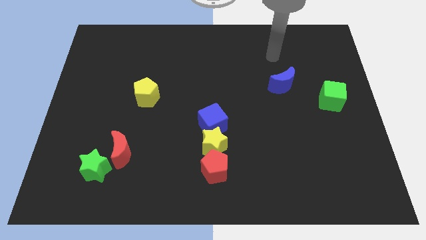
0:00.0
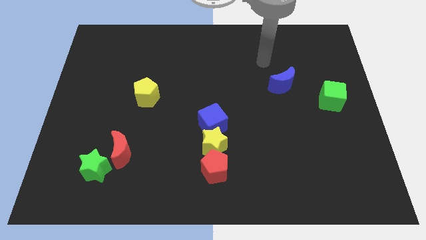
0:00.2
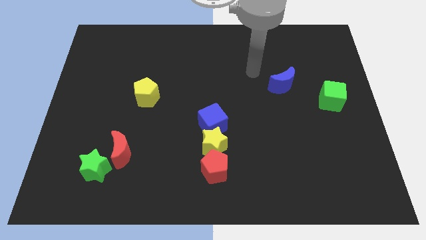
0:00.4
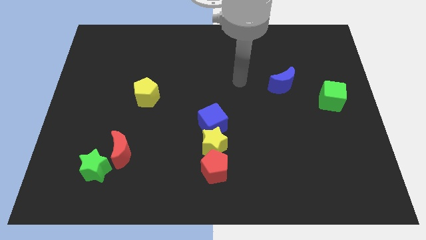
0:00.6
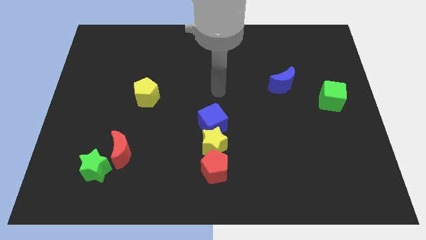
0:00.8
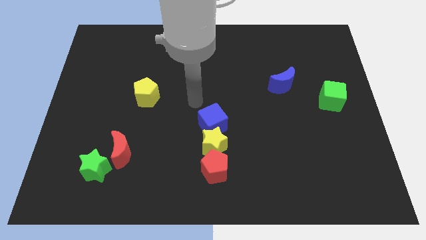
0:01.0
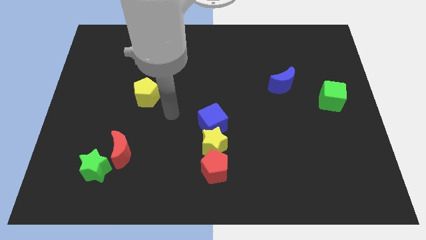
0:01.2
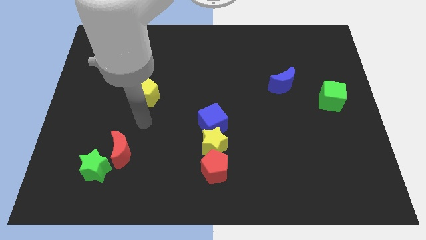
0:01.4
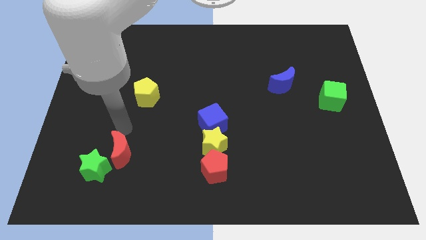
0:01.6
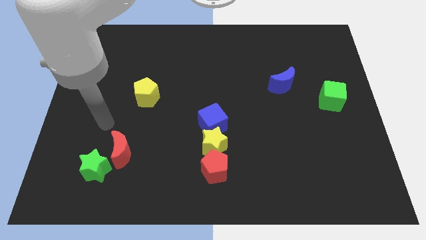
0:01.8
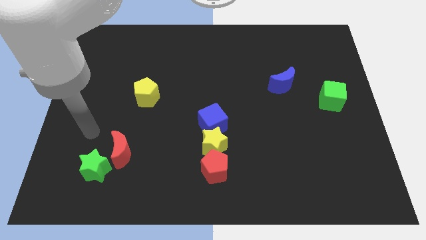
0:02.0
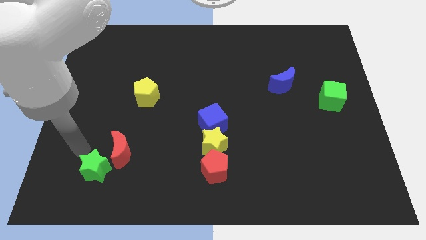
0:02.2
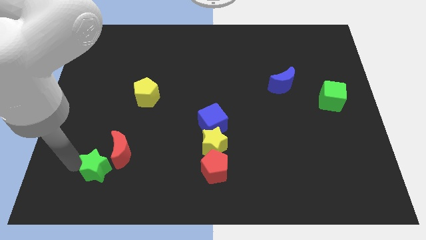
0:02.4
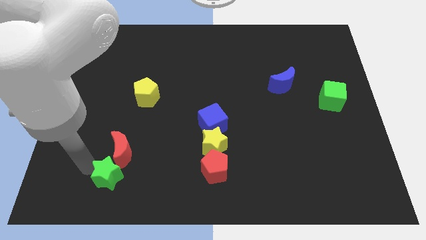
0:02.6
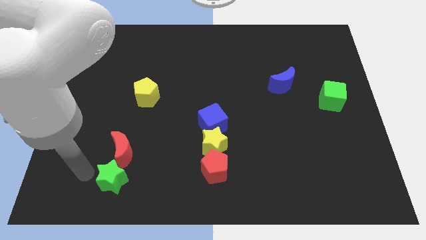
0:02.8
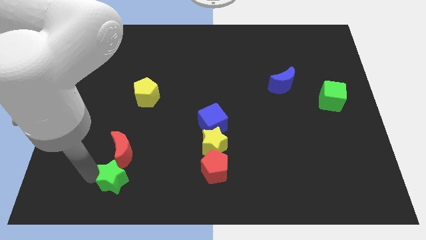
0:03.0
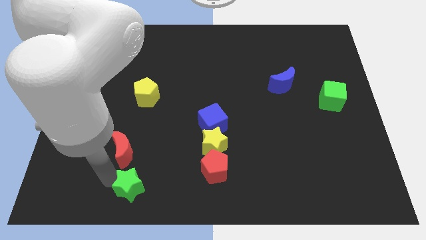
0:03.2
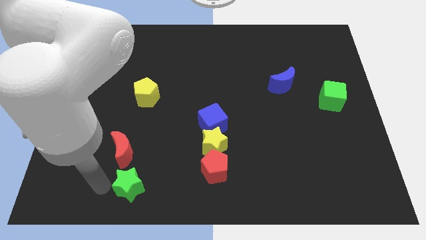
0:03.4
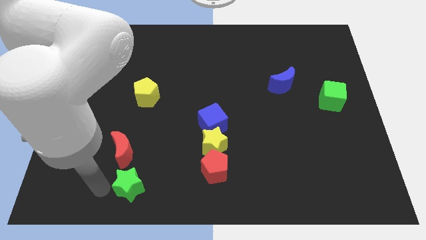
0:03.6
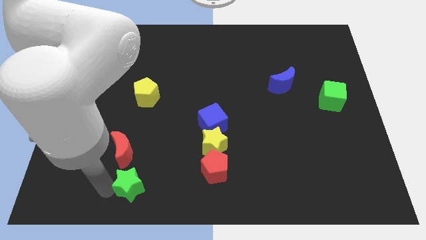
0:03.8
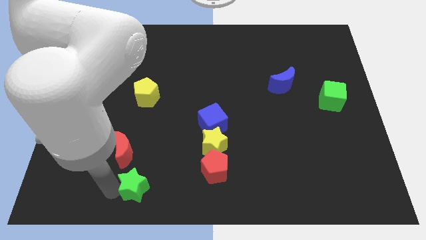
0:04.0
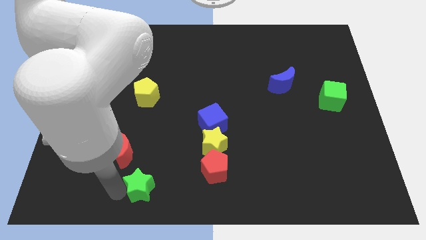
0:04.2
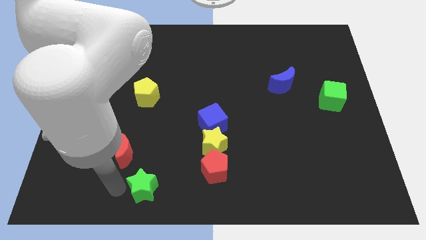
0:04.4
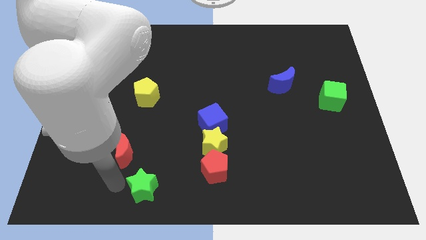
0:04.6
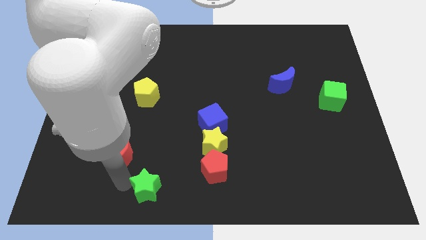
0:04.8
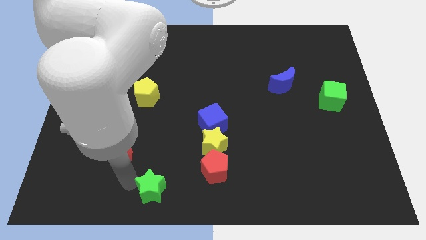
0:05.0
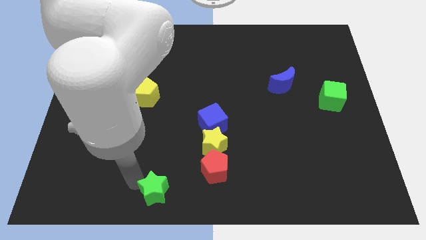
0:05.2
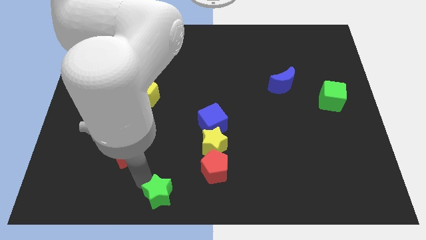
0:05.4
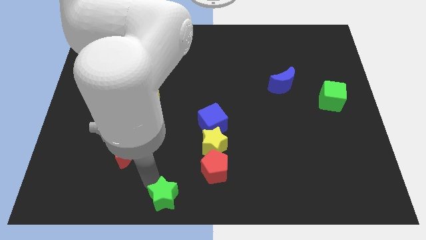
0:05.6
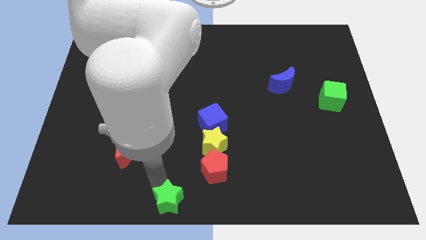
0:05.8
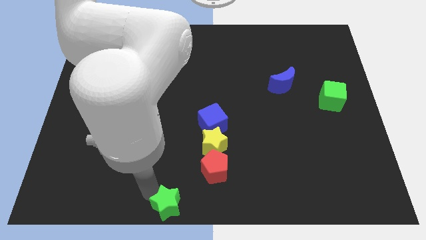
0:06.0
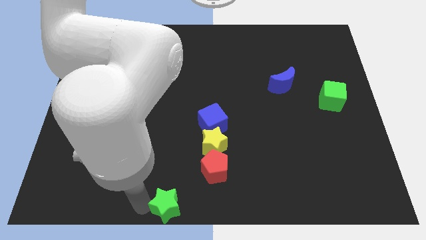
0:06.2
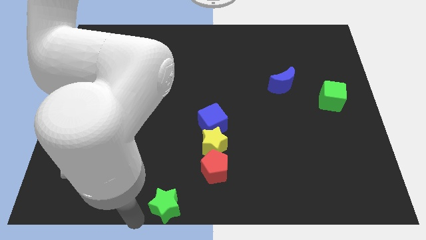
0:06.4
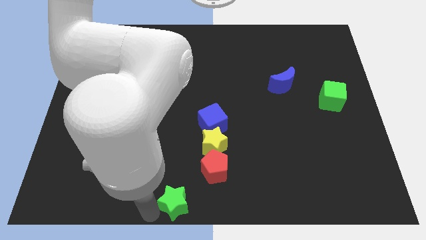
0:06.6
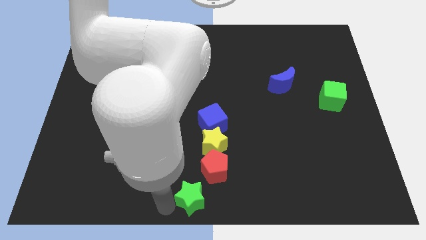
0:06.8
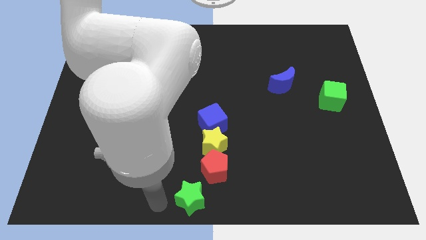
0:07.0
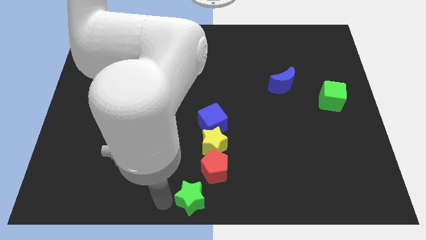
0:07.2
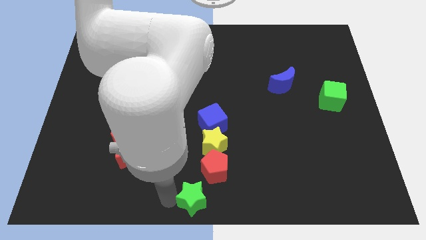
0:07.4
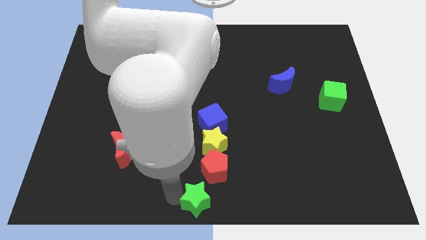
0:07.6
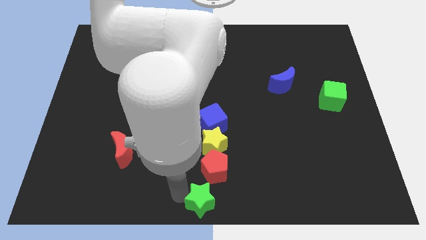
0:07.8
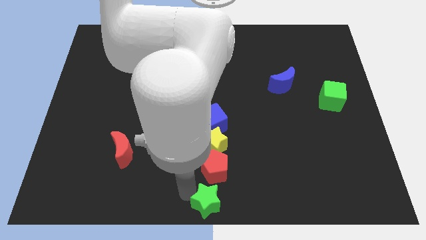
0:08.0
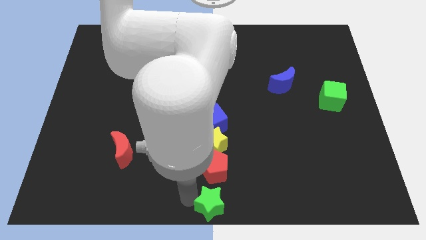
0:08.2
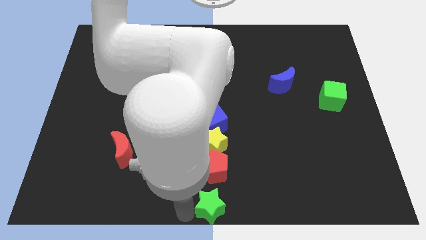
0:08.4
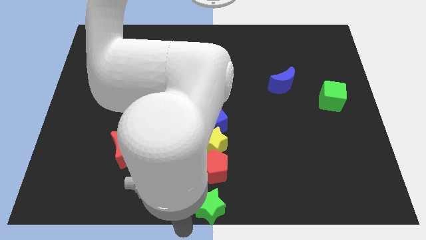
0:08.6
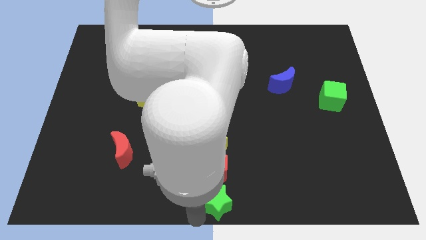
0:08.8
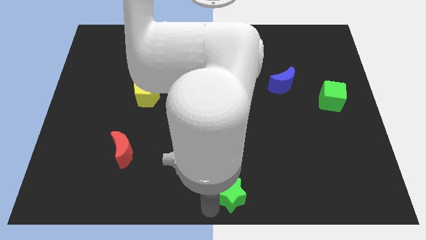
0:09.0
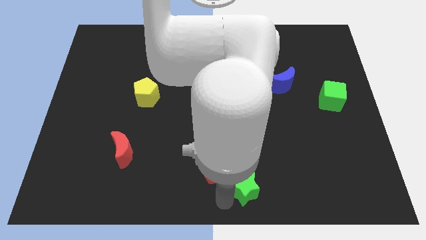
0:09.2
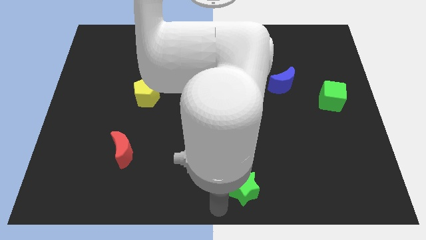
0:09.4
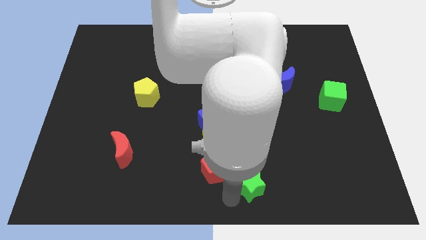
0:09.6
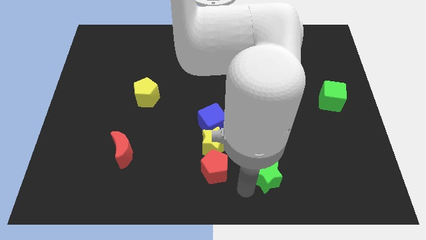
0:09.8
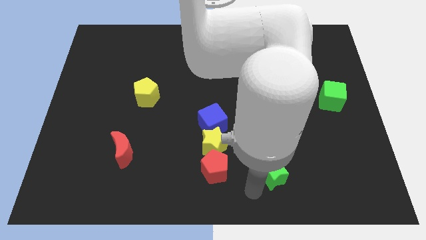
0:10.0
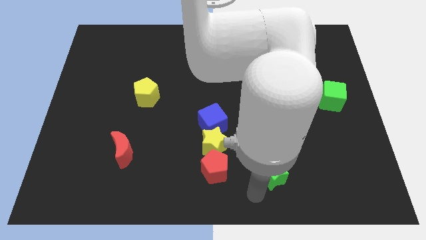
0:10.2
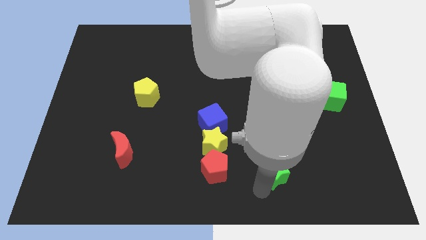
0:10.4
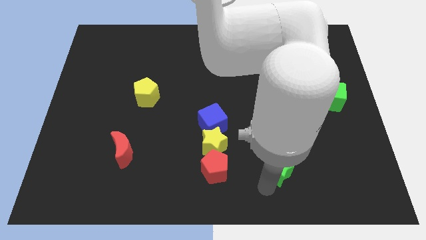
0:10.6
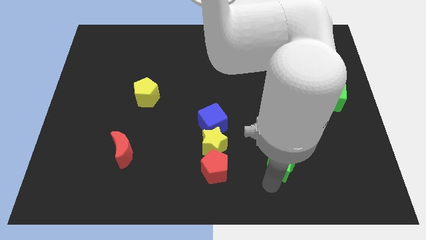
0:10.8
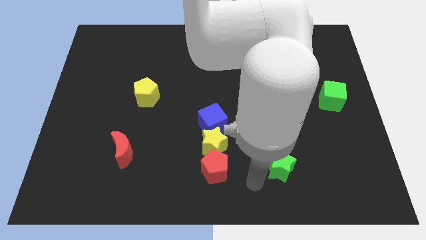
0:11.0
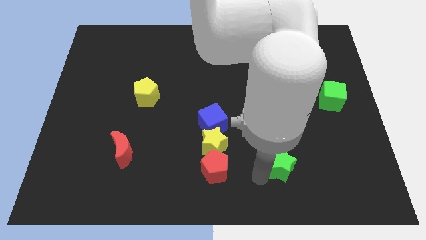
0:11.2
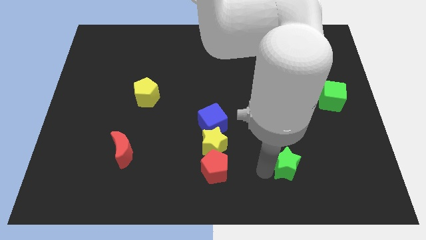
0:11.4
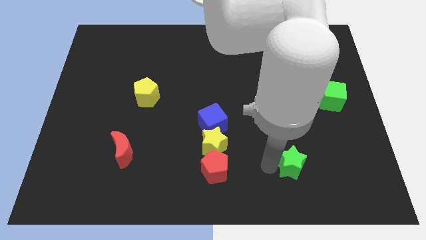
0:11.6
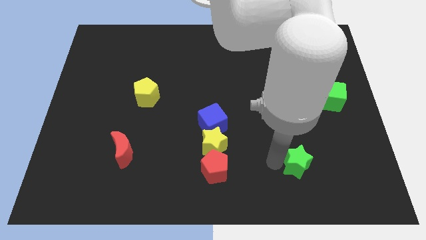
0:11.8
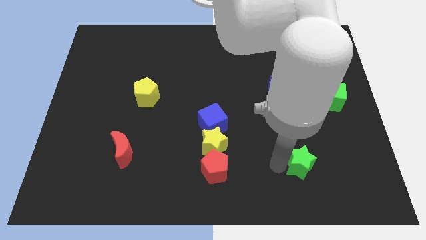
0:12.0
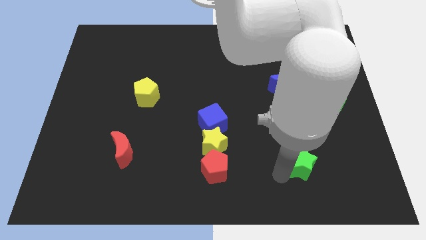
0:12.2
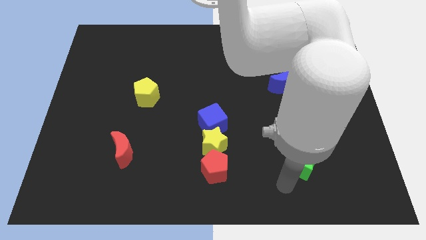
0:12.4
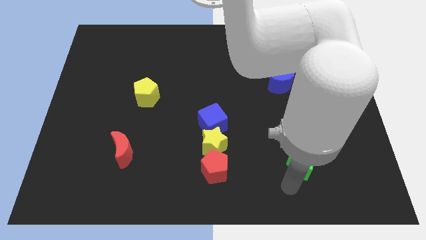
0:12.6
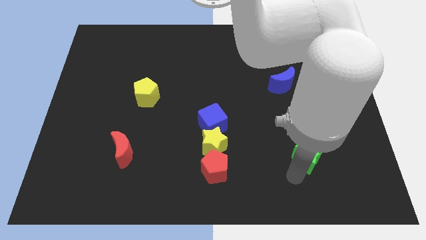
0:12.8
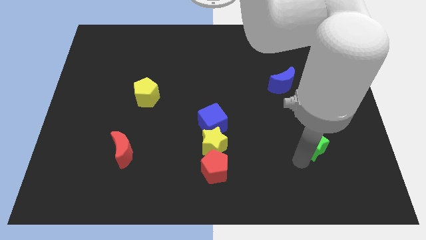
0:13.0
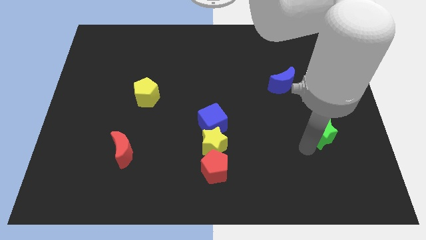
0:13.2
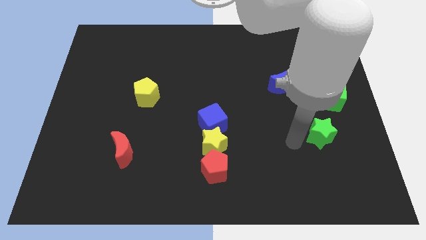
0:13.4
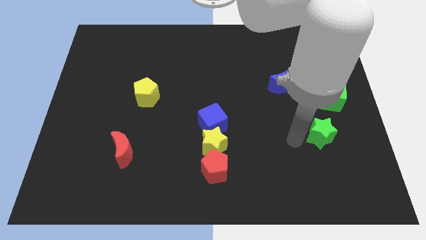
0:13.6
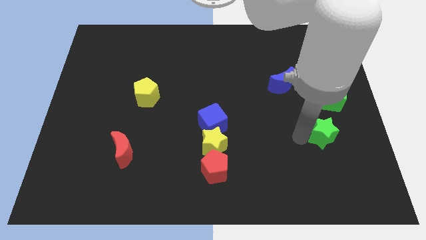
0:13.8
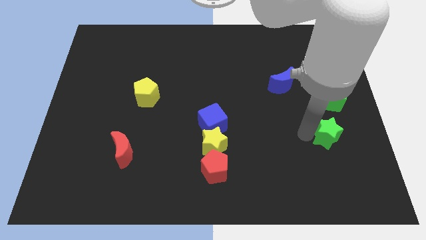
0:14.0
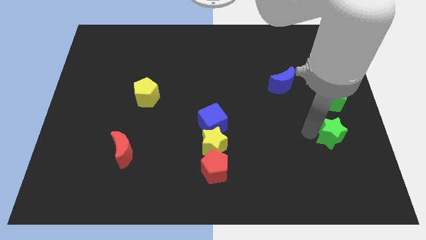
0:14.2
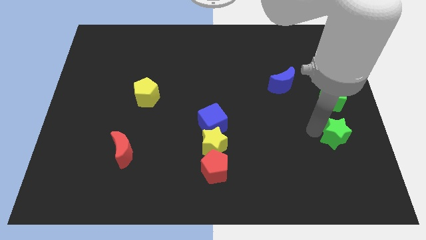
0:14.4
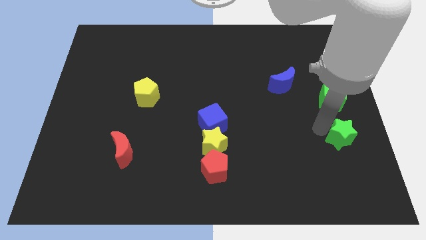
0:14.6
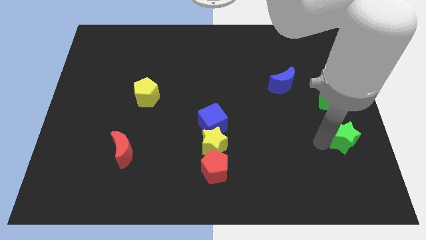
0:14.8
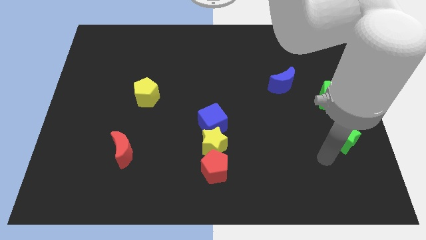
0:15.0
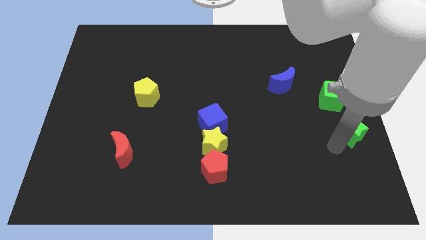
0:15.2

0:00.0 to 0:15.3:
slide the green star to the right side
